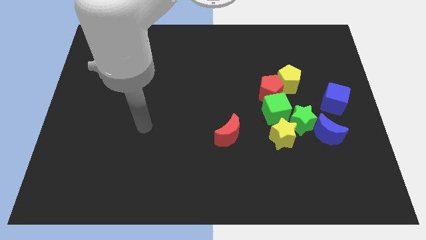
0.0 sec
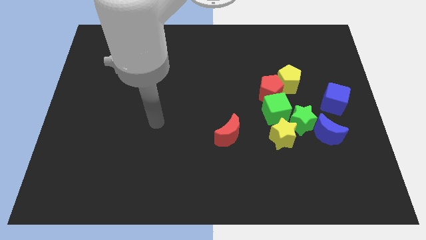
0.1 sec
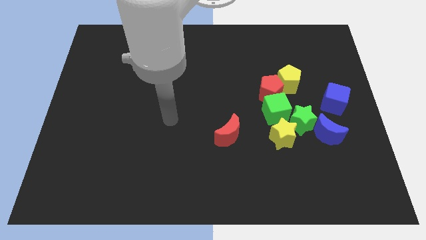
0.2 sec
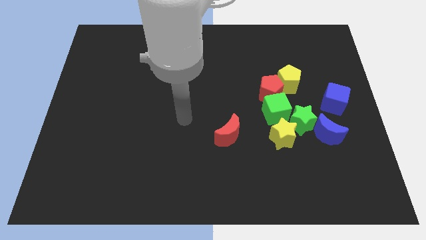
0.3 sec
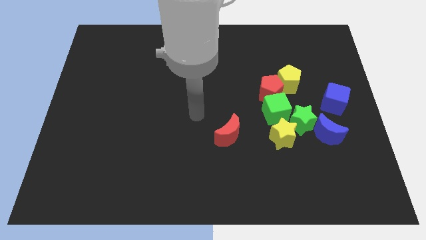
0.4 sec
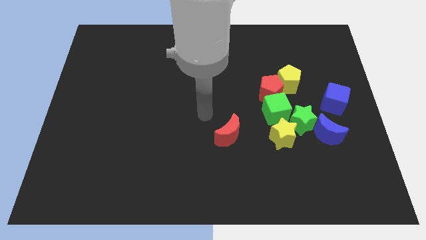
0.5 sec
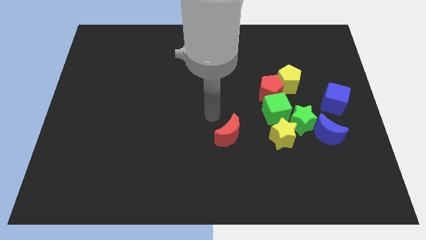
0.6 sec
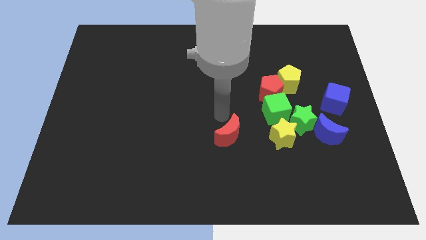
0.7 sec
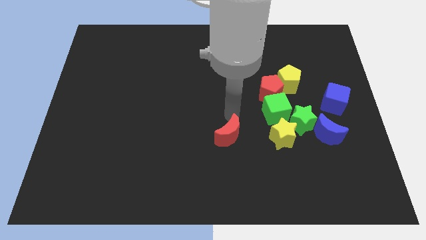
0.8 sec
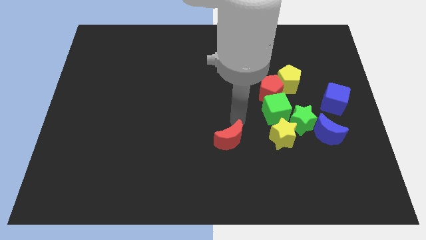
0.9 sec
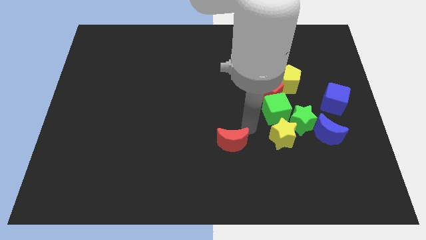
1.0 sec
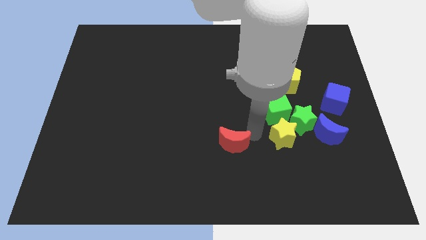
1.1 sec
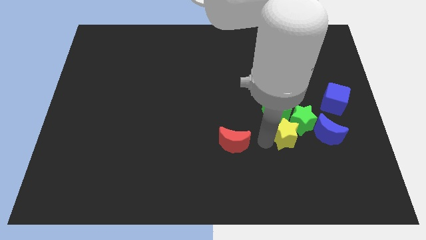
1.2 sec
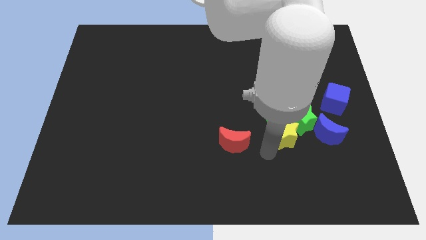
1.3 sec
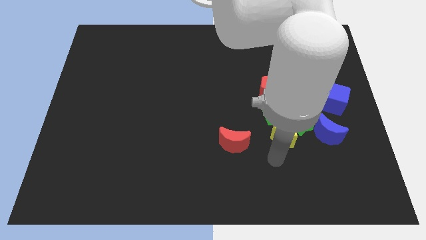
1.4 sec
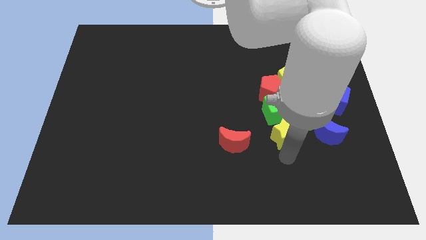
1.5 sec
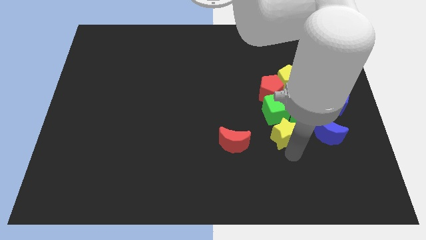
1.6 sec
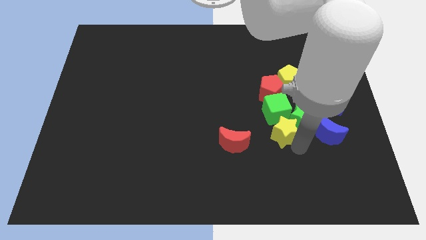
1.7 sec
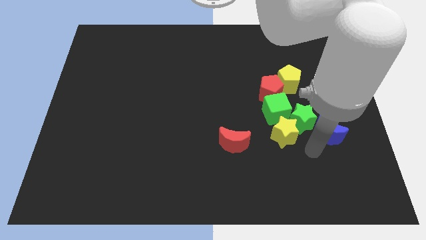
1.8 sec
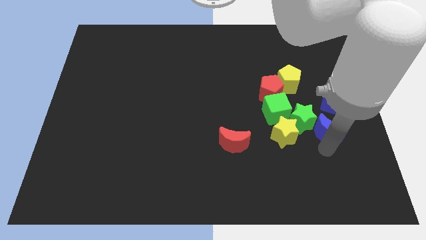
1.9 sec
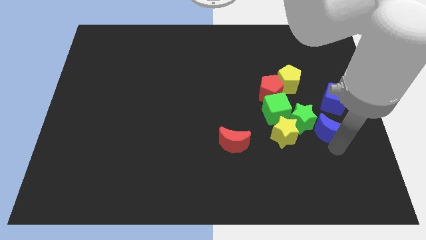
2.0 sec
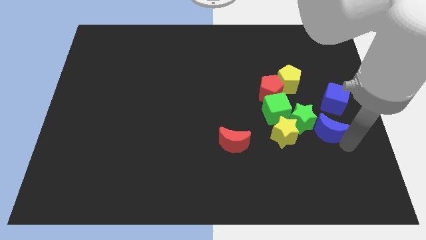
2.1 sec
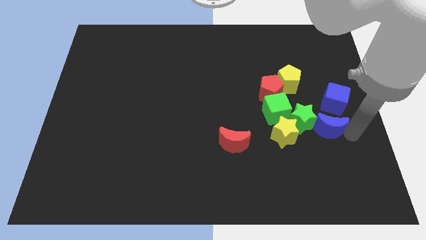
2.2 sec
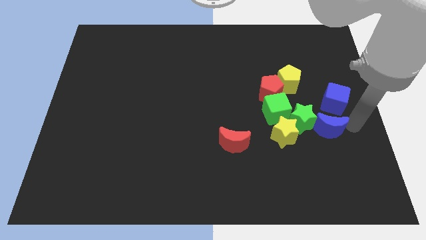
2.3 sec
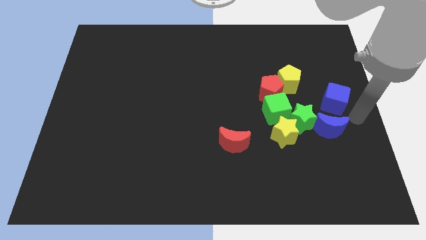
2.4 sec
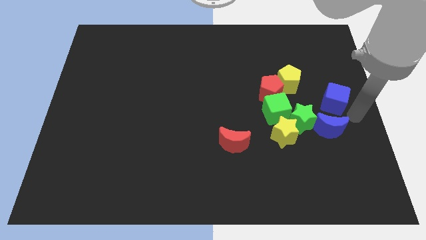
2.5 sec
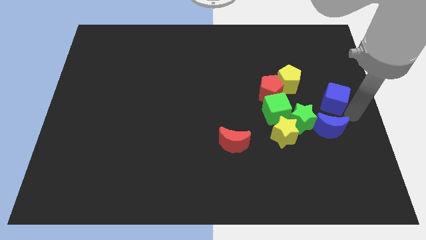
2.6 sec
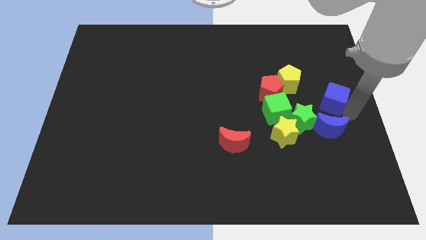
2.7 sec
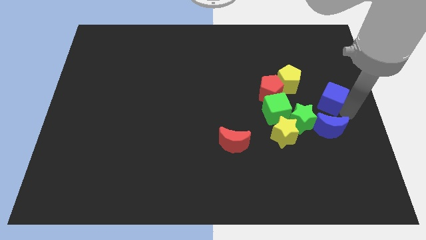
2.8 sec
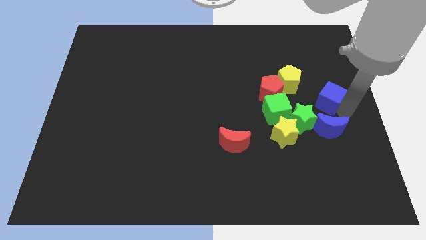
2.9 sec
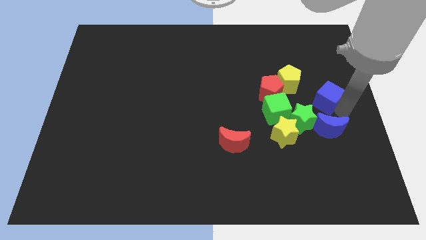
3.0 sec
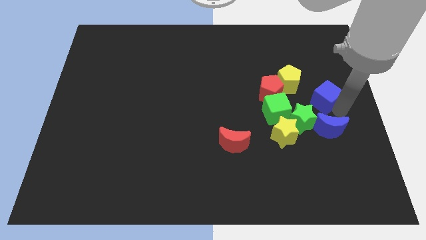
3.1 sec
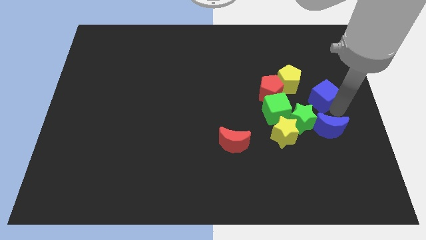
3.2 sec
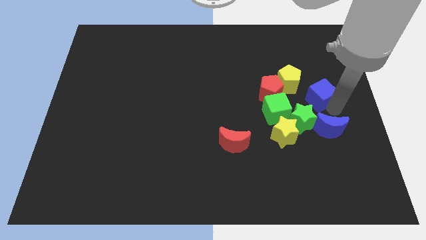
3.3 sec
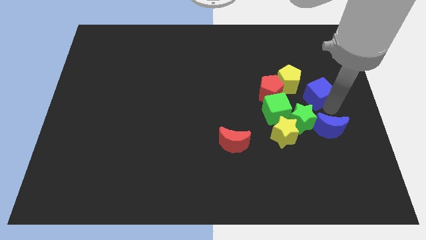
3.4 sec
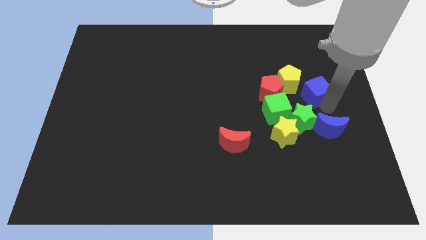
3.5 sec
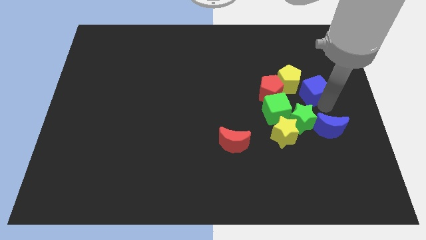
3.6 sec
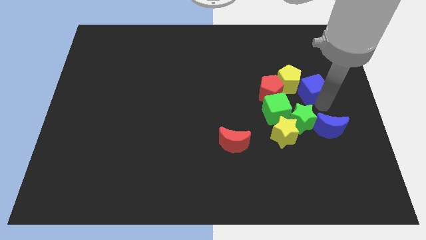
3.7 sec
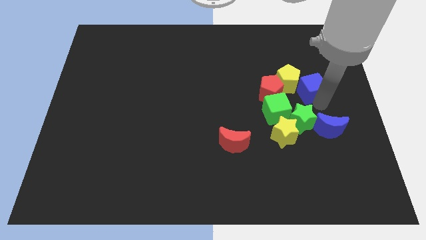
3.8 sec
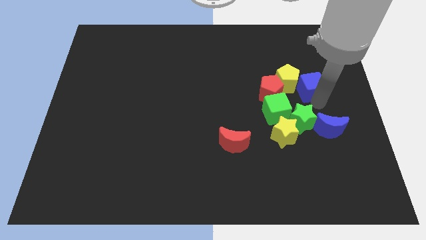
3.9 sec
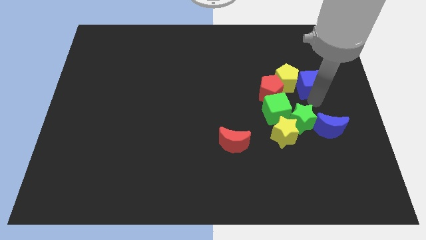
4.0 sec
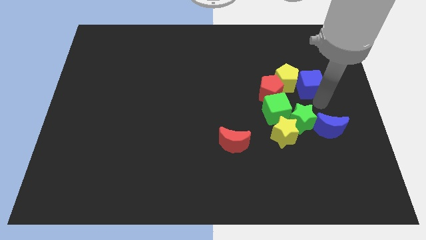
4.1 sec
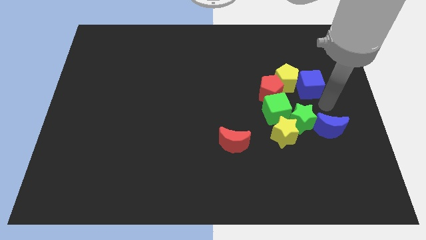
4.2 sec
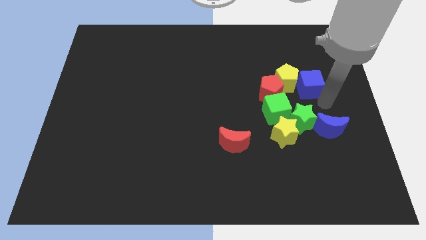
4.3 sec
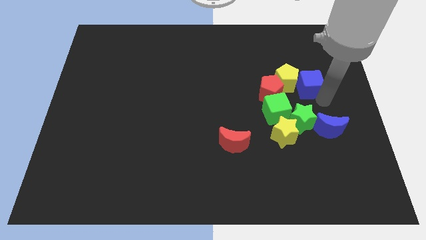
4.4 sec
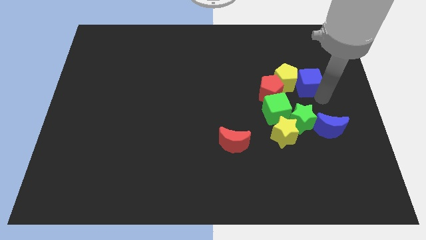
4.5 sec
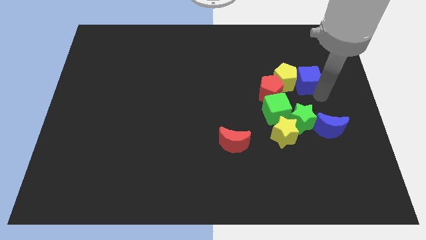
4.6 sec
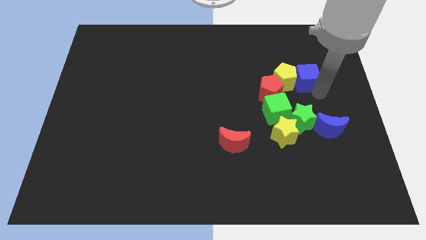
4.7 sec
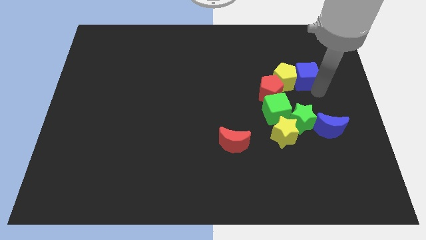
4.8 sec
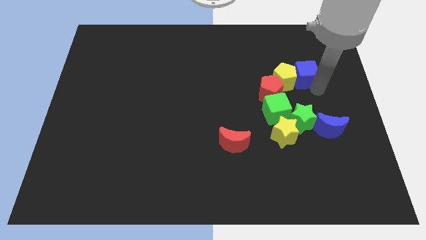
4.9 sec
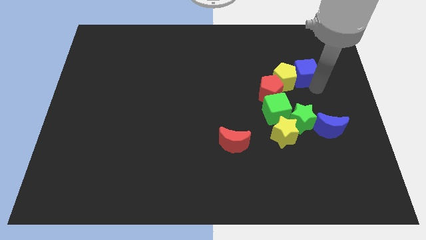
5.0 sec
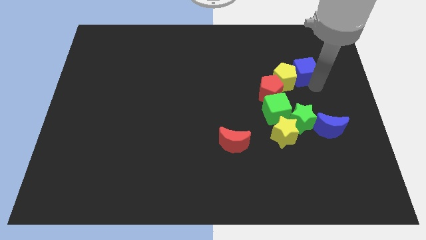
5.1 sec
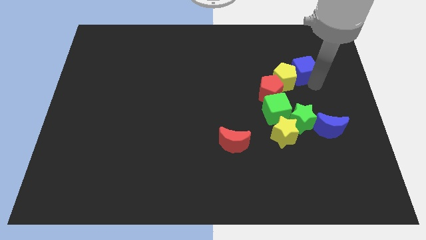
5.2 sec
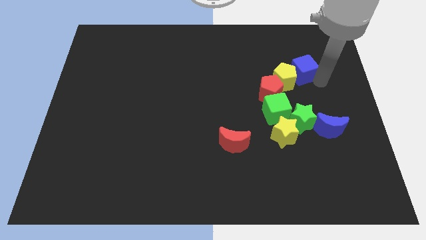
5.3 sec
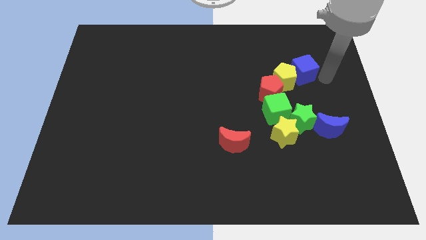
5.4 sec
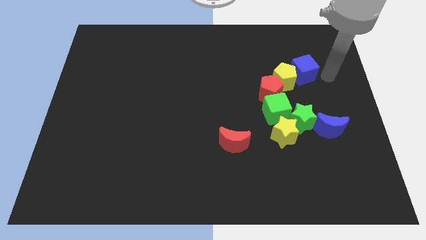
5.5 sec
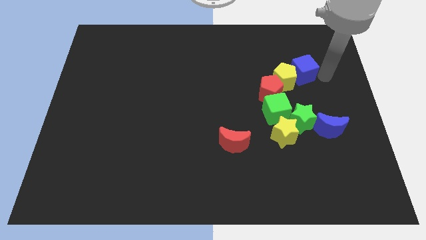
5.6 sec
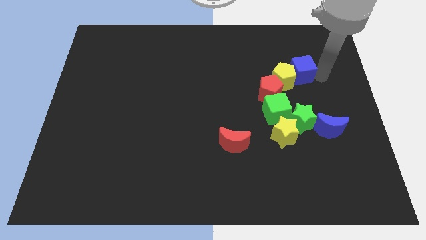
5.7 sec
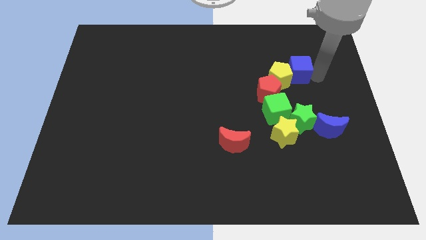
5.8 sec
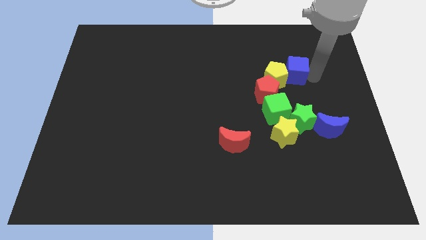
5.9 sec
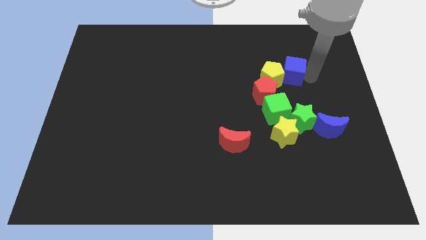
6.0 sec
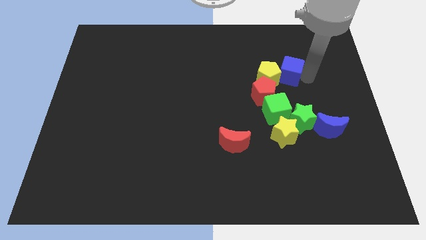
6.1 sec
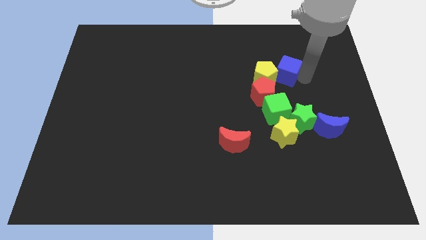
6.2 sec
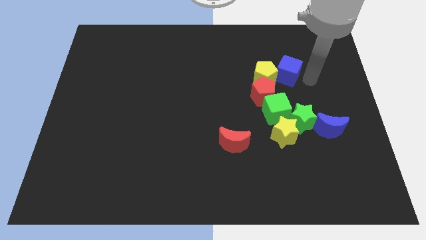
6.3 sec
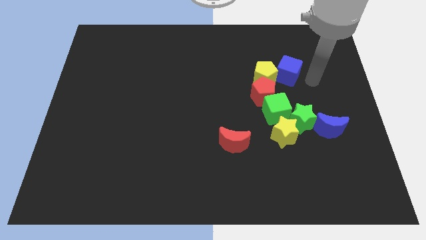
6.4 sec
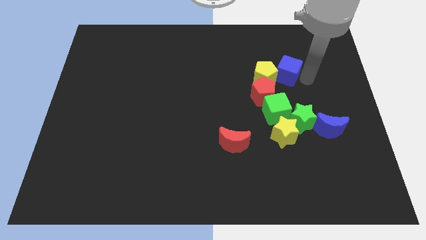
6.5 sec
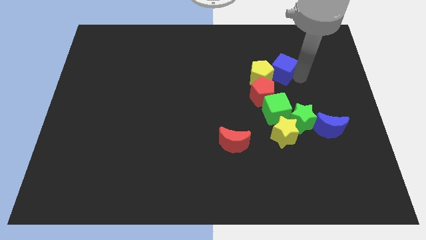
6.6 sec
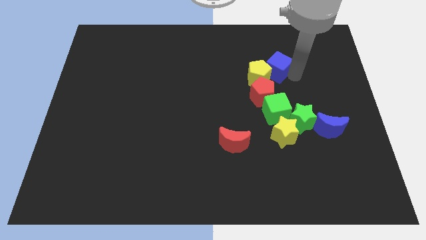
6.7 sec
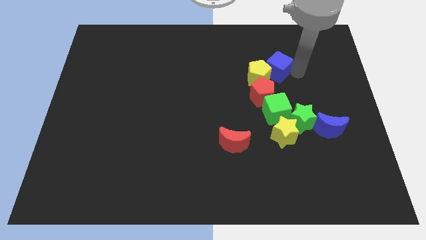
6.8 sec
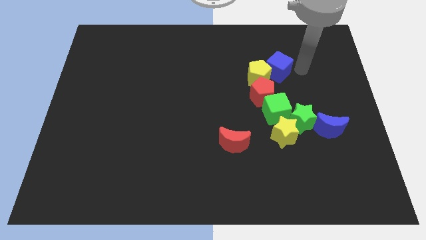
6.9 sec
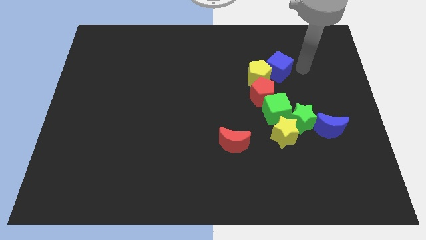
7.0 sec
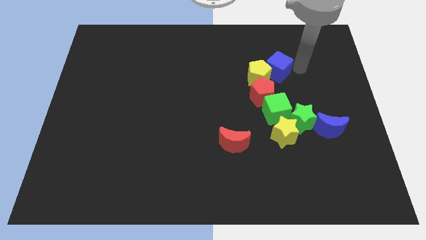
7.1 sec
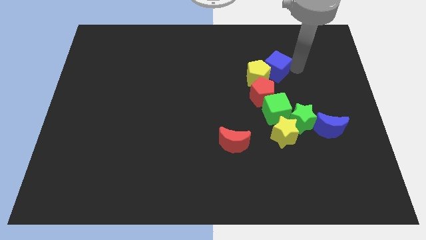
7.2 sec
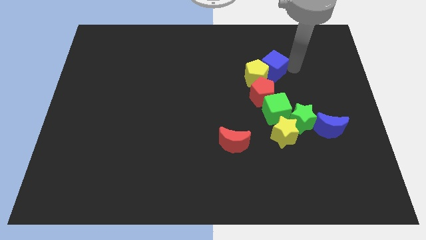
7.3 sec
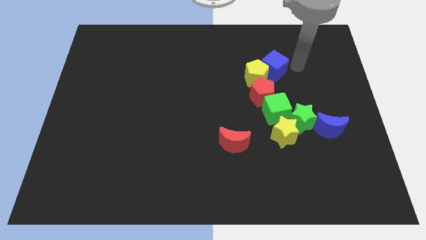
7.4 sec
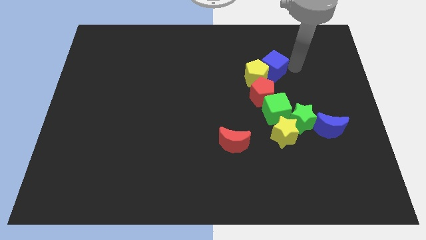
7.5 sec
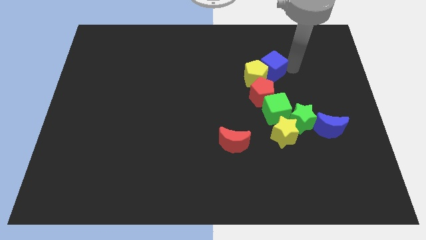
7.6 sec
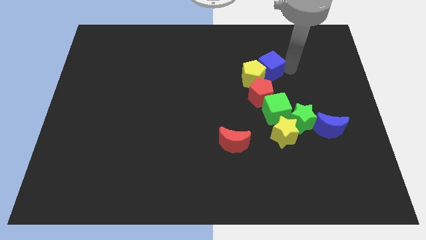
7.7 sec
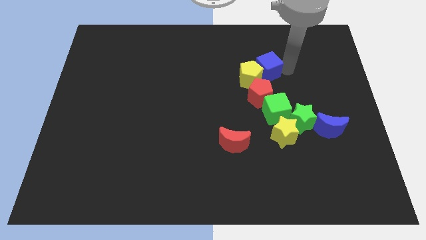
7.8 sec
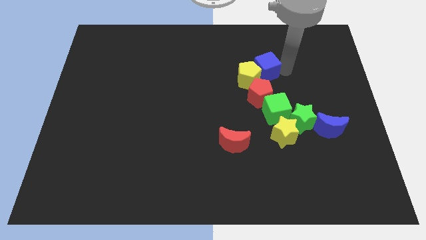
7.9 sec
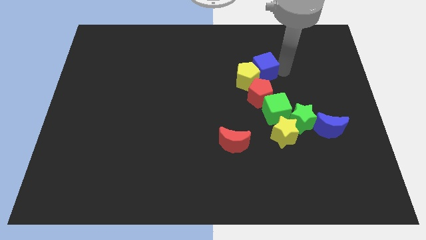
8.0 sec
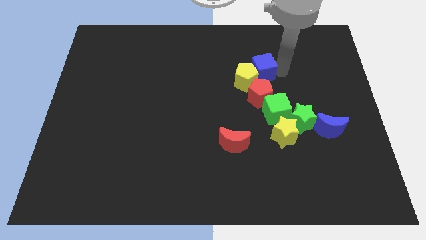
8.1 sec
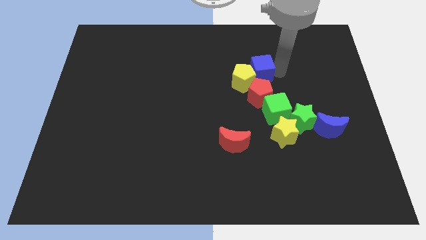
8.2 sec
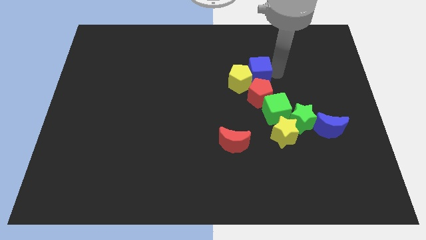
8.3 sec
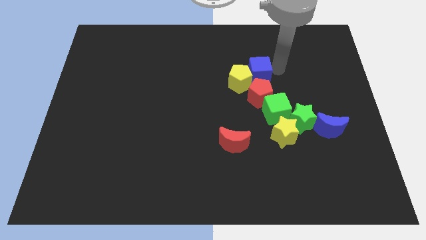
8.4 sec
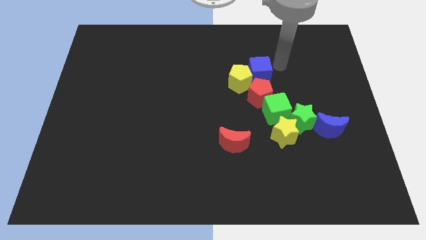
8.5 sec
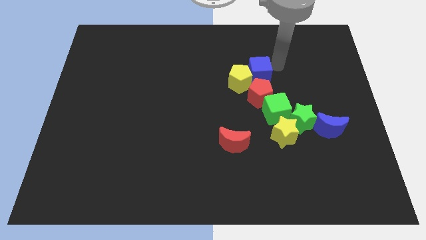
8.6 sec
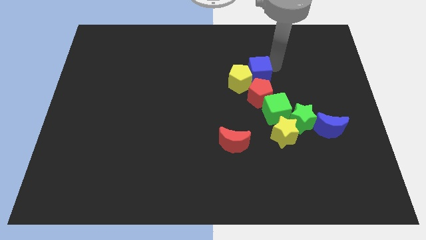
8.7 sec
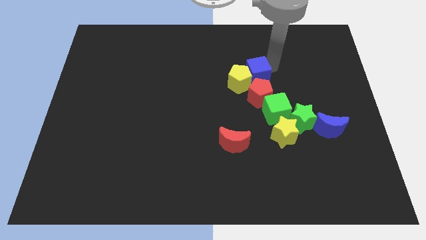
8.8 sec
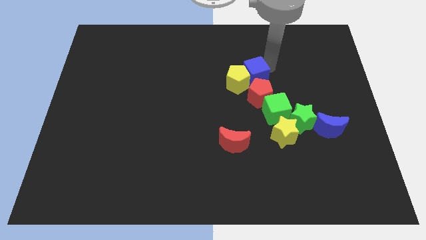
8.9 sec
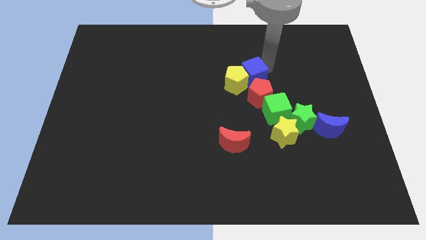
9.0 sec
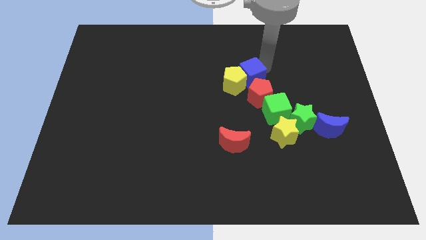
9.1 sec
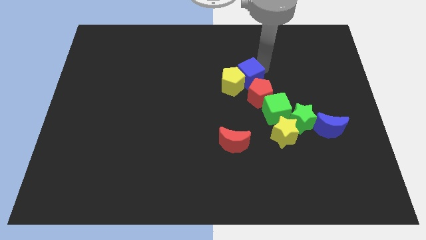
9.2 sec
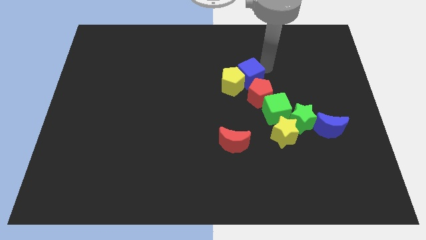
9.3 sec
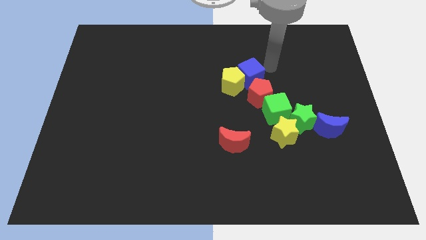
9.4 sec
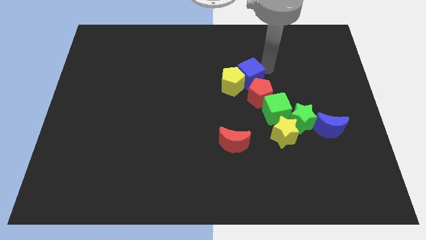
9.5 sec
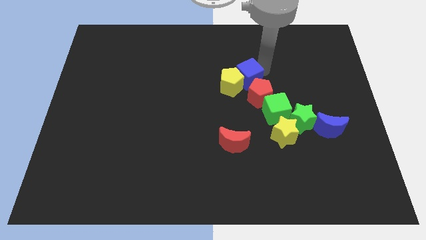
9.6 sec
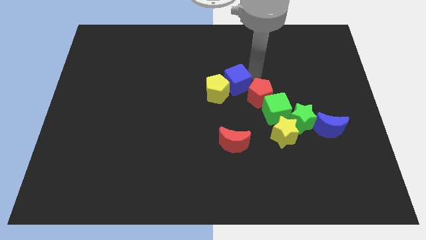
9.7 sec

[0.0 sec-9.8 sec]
push the blue cube left
